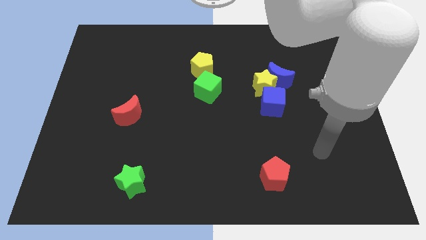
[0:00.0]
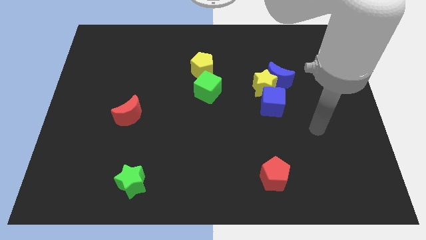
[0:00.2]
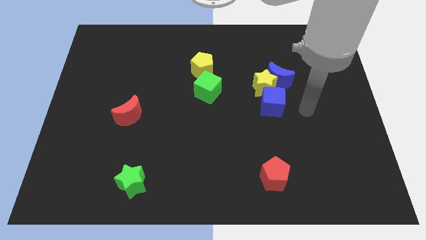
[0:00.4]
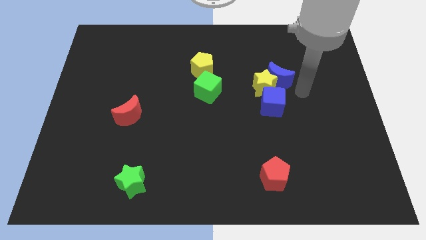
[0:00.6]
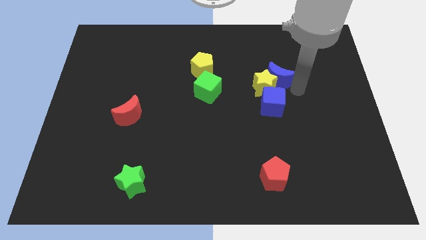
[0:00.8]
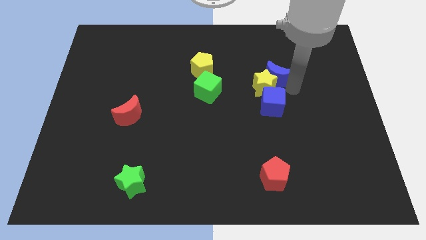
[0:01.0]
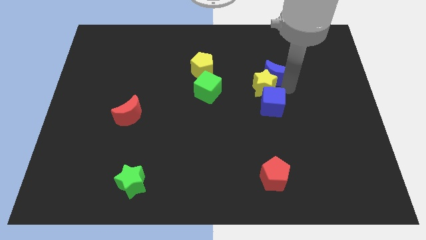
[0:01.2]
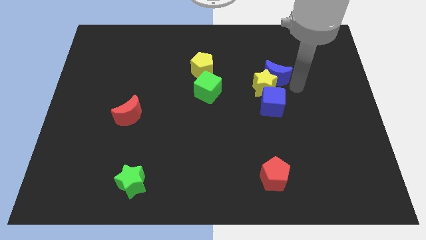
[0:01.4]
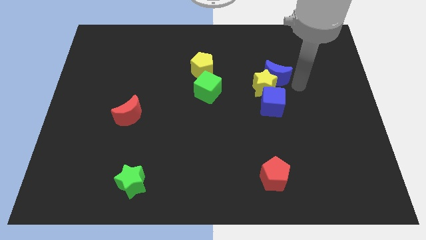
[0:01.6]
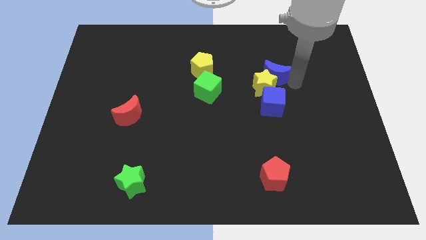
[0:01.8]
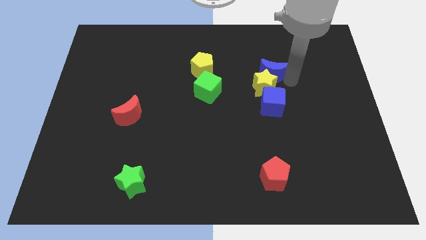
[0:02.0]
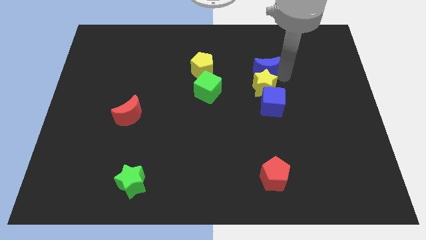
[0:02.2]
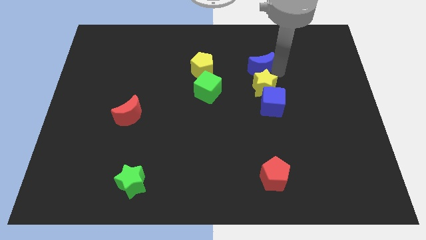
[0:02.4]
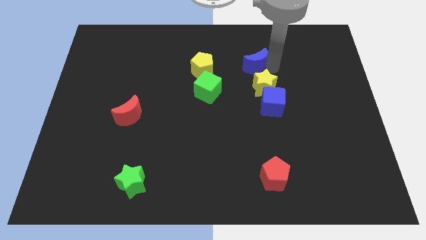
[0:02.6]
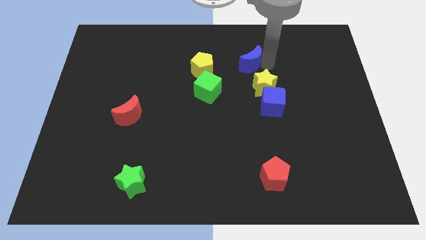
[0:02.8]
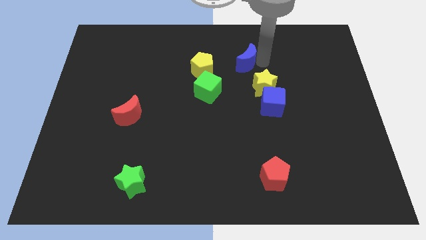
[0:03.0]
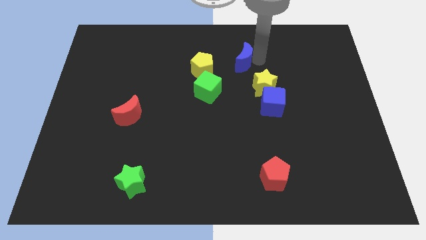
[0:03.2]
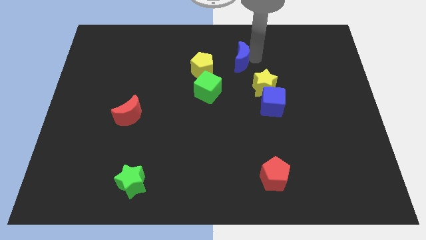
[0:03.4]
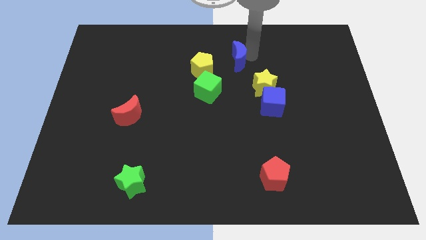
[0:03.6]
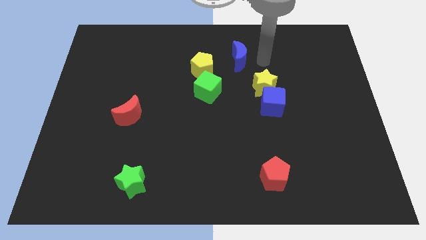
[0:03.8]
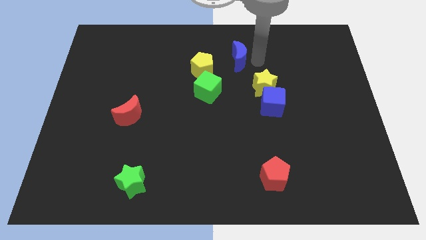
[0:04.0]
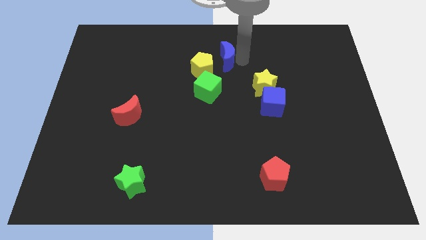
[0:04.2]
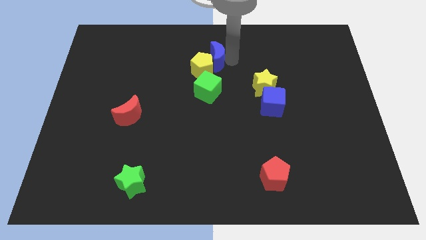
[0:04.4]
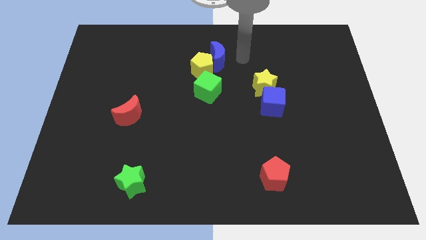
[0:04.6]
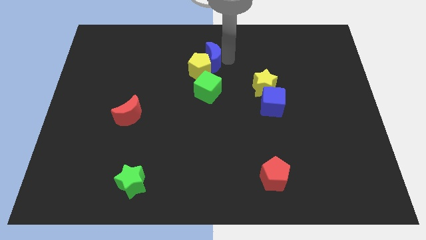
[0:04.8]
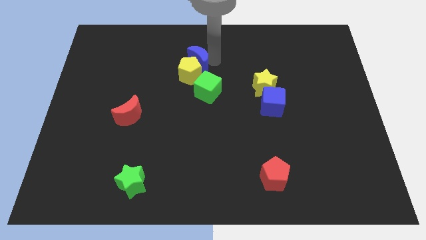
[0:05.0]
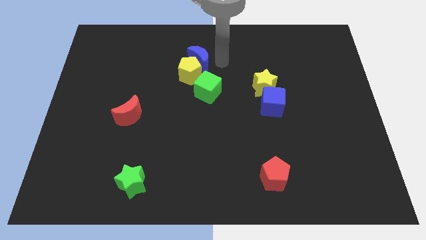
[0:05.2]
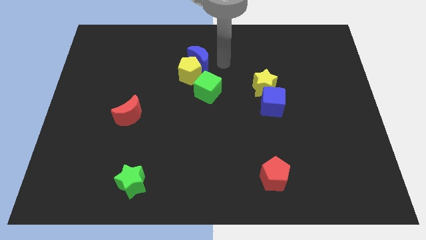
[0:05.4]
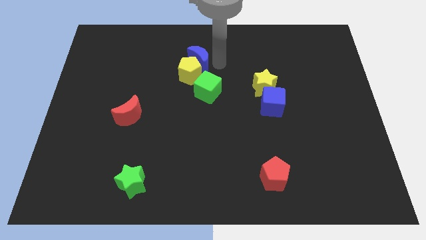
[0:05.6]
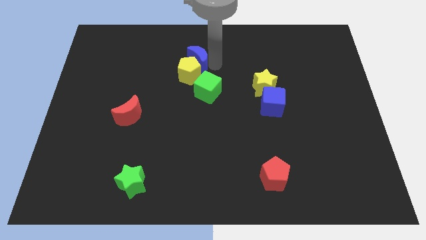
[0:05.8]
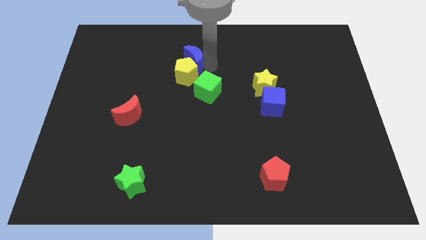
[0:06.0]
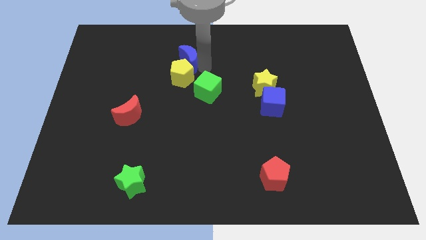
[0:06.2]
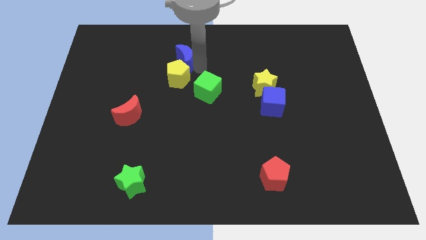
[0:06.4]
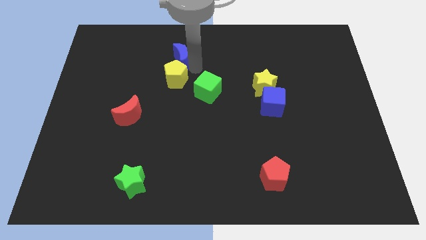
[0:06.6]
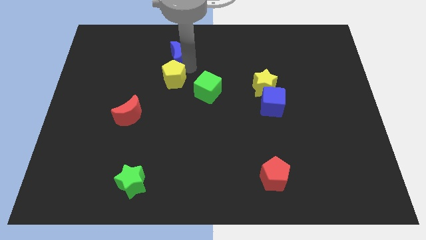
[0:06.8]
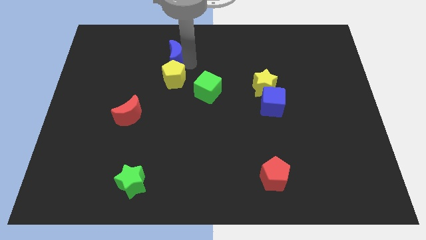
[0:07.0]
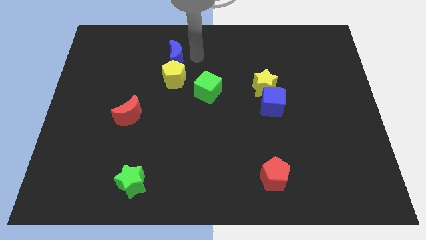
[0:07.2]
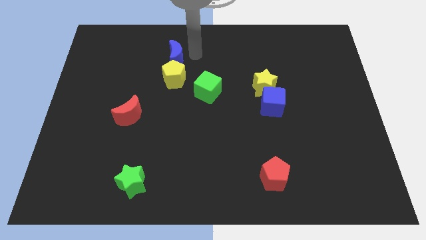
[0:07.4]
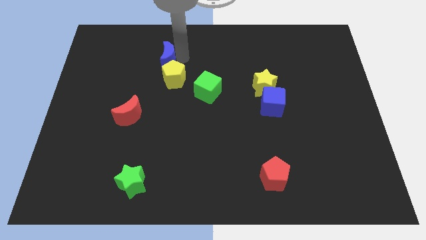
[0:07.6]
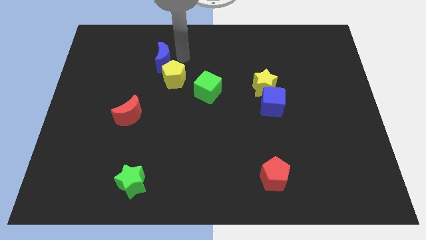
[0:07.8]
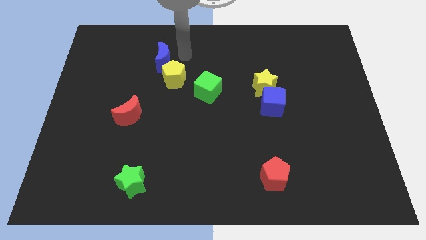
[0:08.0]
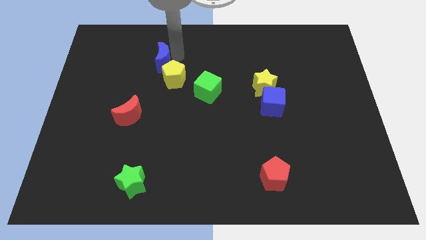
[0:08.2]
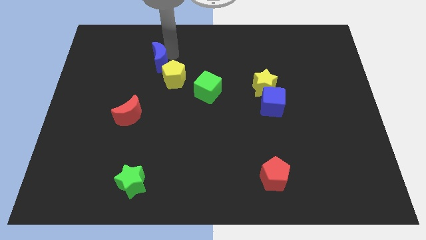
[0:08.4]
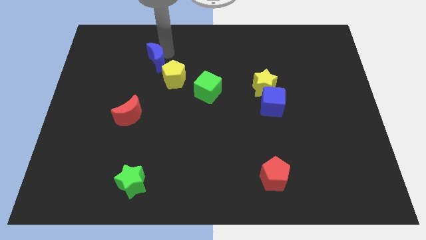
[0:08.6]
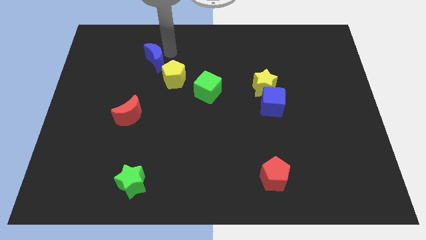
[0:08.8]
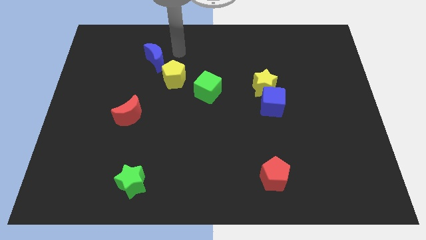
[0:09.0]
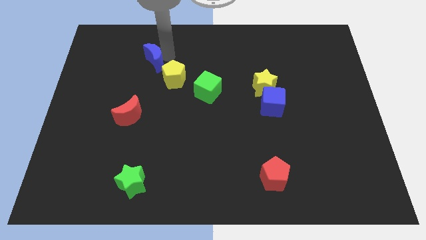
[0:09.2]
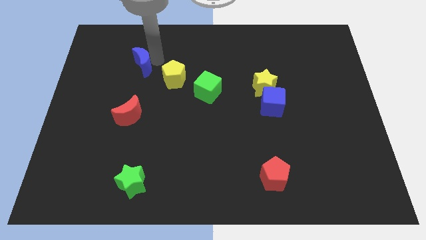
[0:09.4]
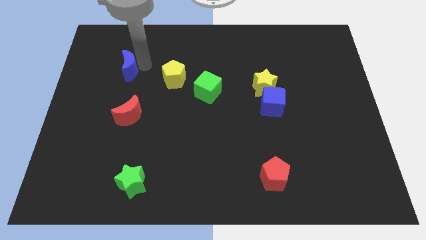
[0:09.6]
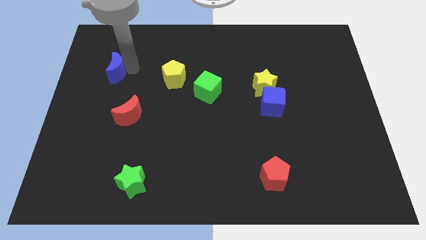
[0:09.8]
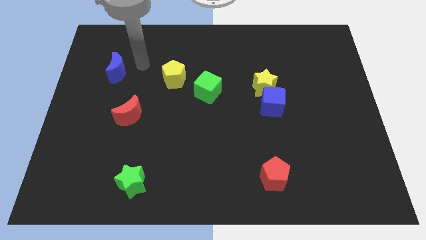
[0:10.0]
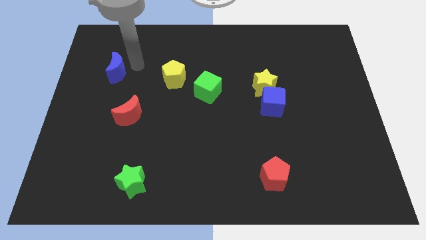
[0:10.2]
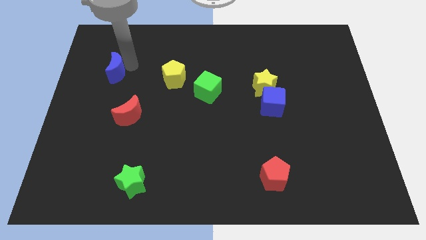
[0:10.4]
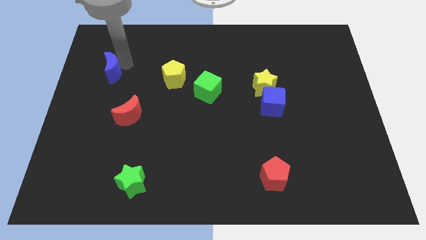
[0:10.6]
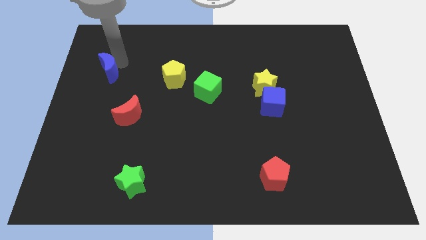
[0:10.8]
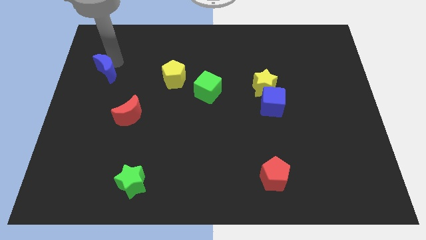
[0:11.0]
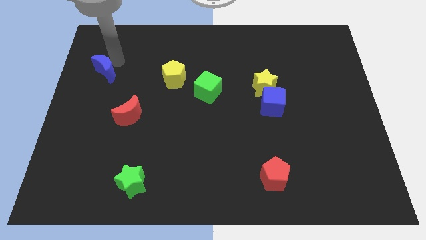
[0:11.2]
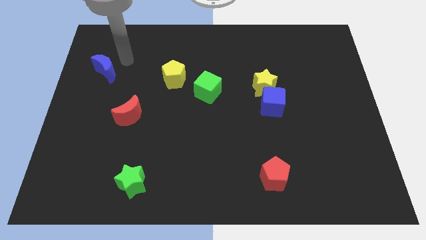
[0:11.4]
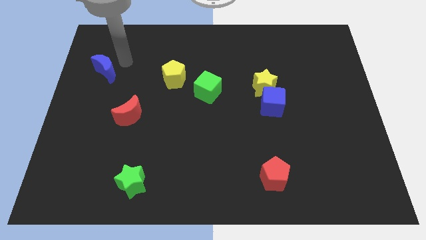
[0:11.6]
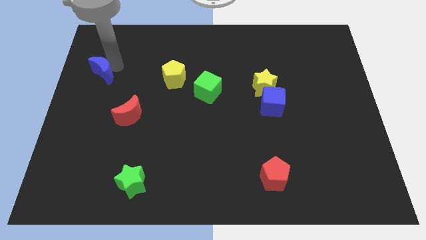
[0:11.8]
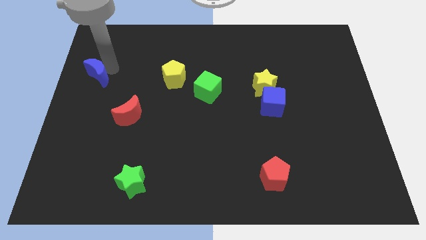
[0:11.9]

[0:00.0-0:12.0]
slide the blue moon to the left side of the board
